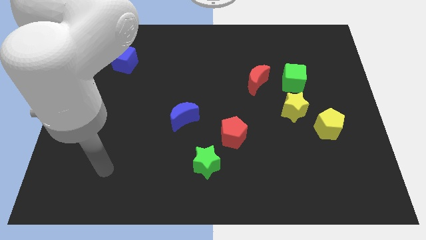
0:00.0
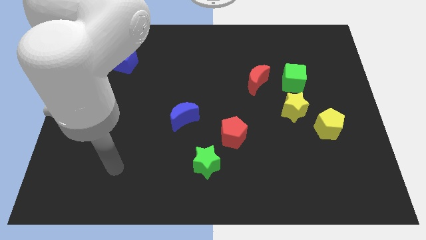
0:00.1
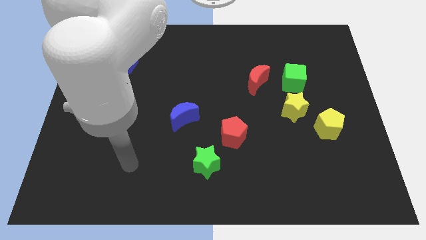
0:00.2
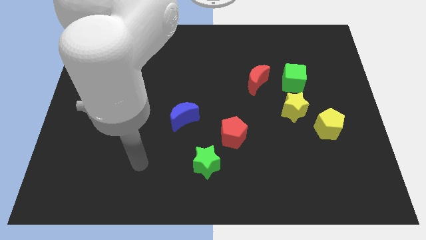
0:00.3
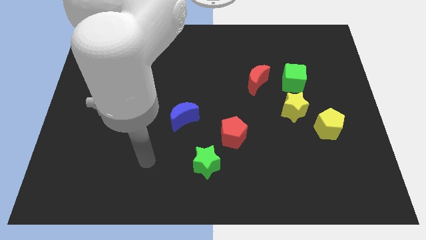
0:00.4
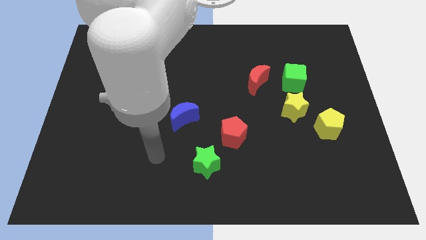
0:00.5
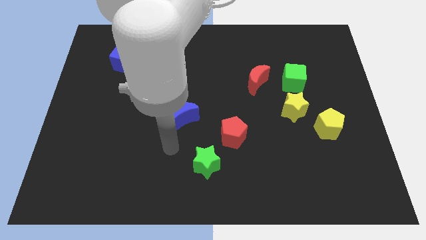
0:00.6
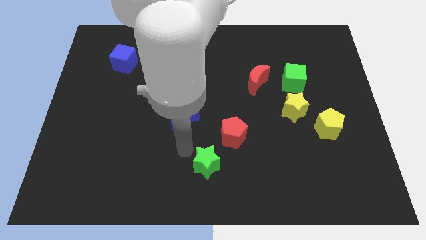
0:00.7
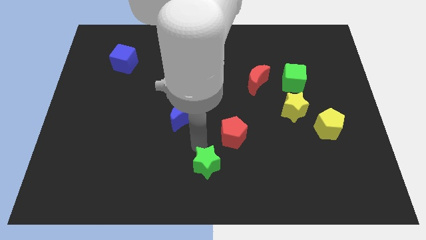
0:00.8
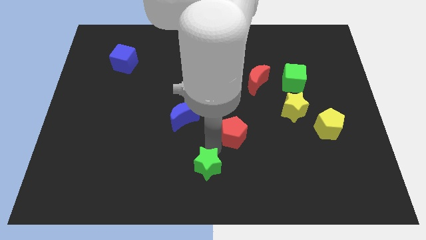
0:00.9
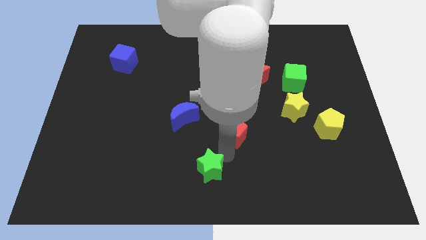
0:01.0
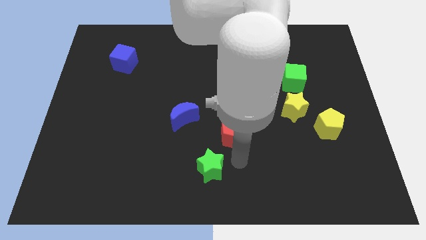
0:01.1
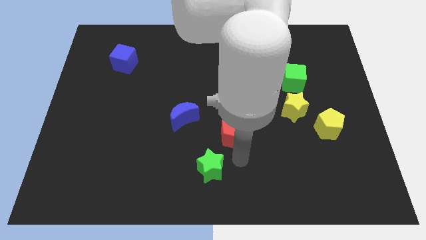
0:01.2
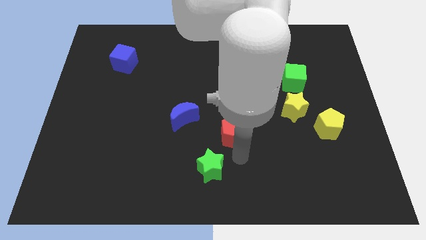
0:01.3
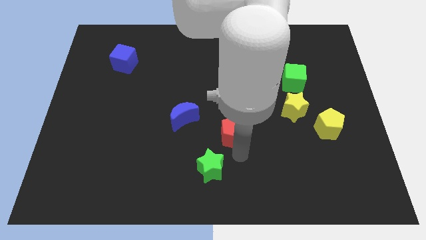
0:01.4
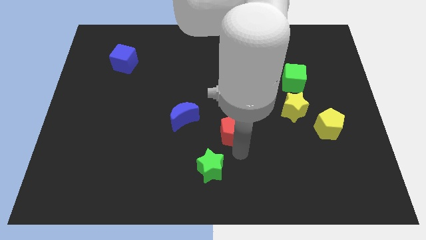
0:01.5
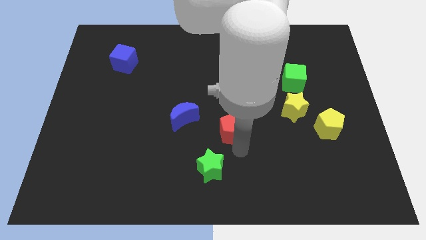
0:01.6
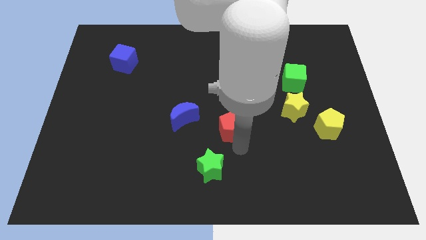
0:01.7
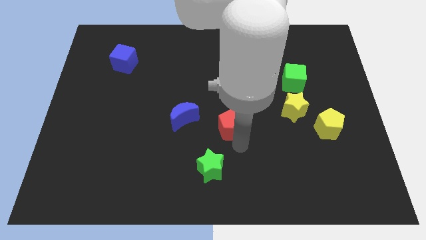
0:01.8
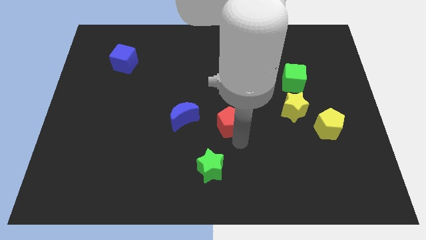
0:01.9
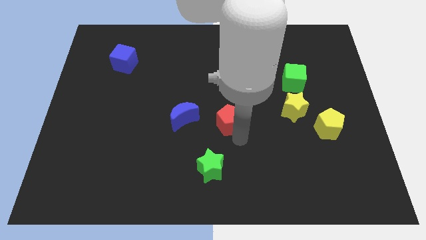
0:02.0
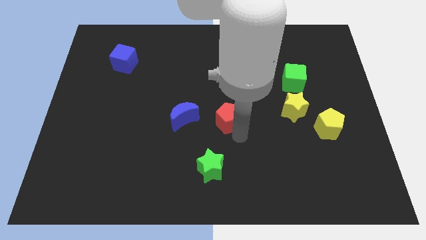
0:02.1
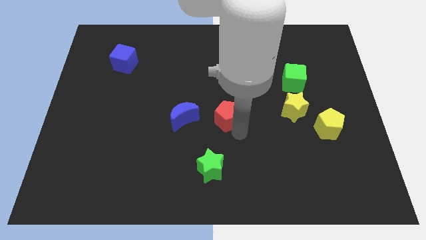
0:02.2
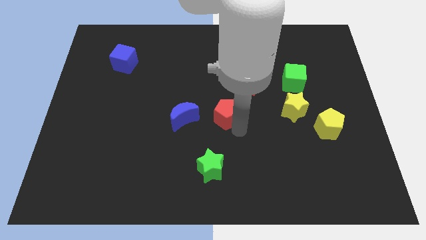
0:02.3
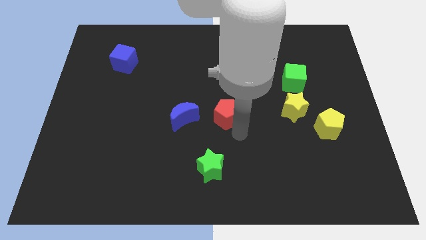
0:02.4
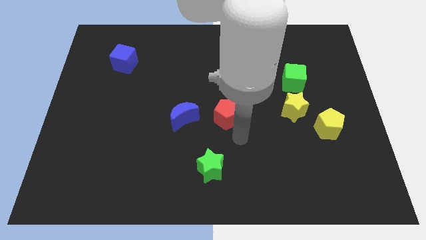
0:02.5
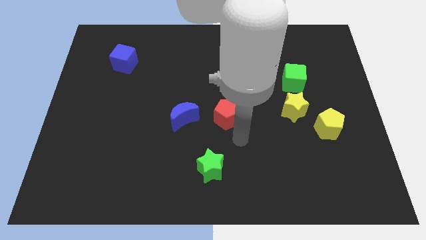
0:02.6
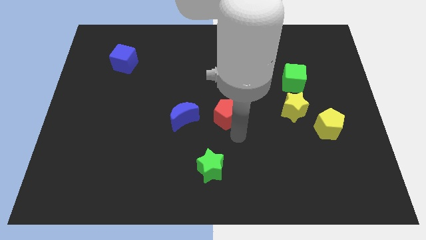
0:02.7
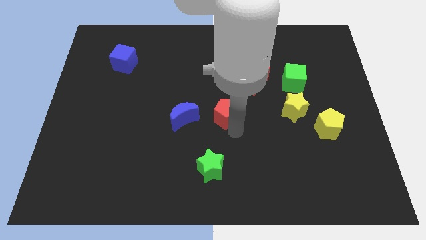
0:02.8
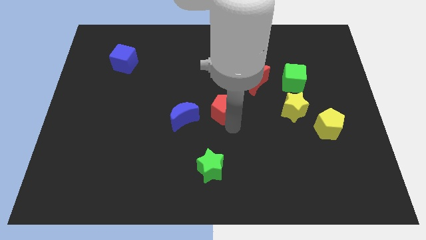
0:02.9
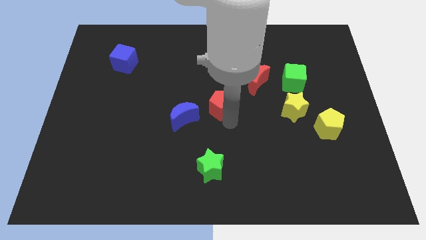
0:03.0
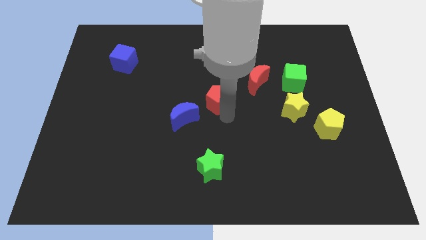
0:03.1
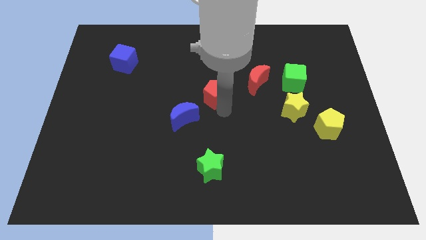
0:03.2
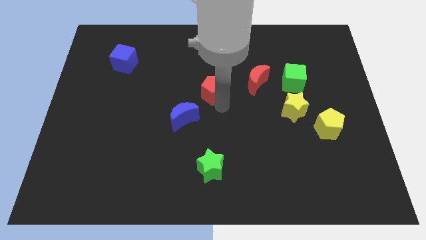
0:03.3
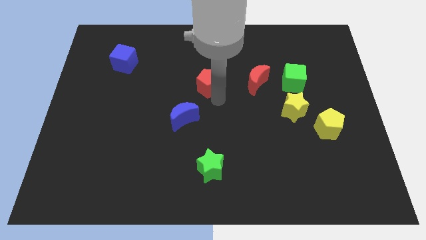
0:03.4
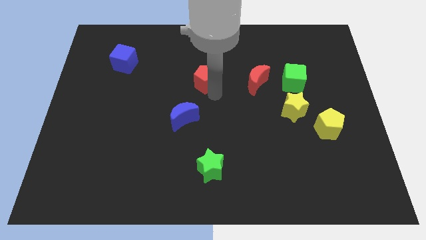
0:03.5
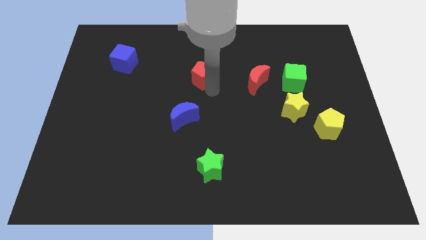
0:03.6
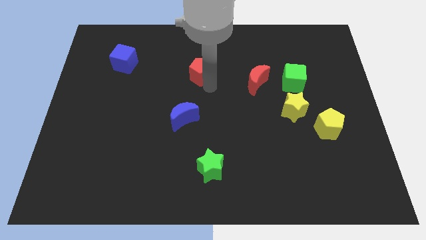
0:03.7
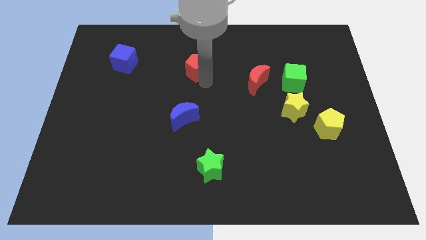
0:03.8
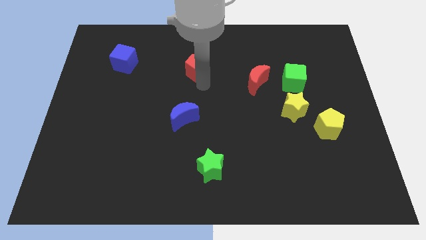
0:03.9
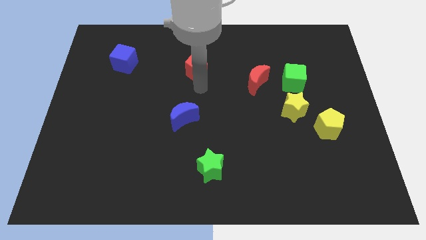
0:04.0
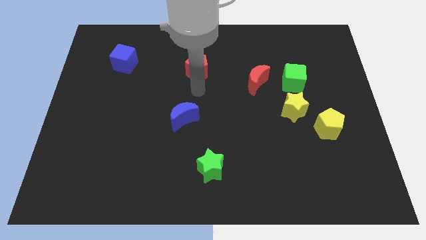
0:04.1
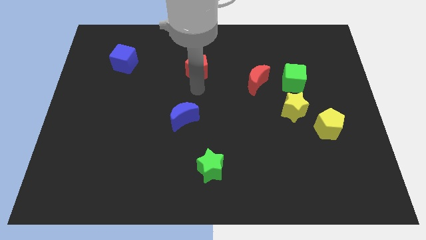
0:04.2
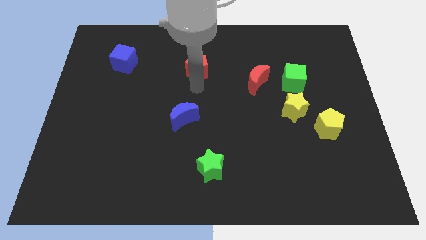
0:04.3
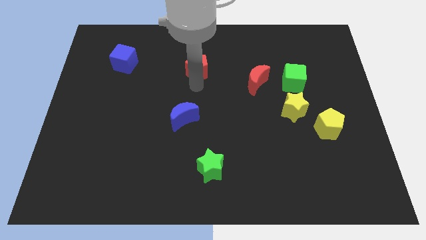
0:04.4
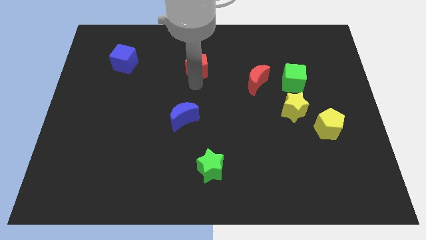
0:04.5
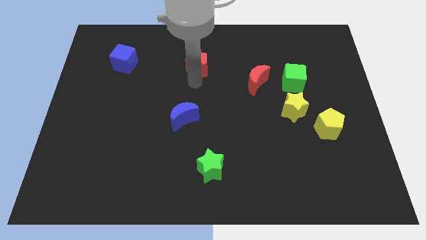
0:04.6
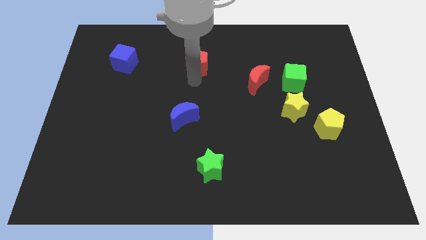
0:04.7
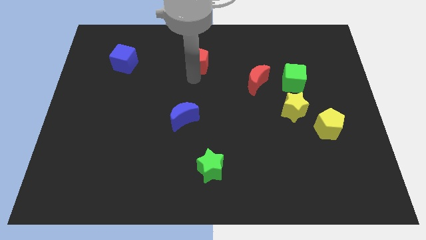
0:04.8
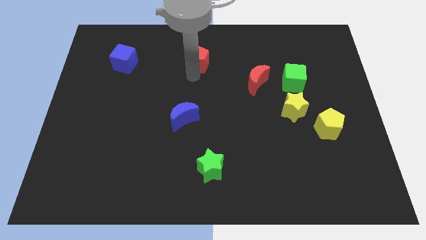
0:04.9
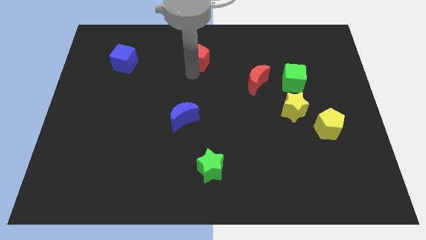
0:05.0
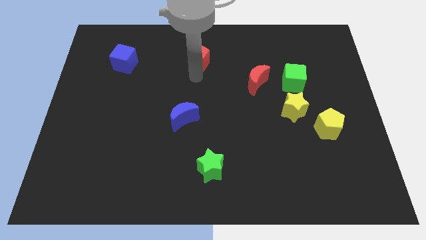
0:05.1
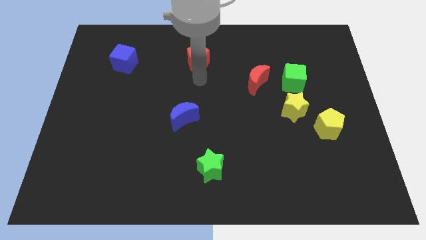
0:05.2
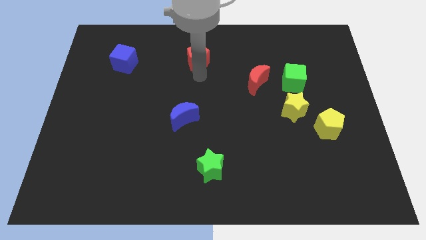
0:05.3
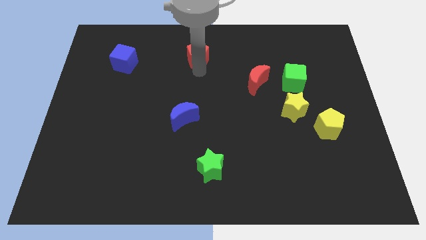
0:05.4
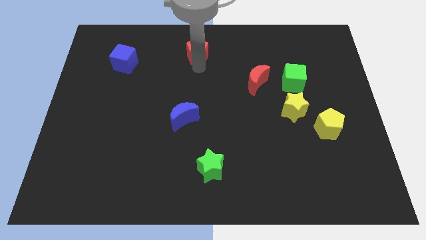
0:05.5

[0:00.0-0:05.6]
put the red pentagon to the towards your base
